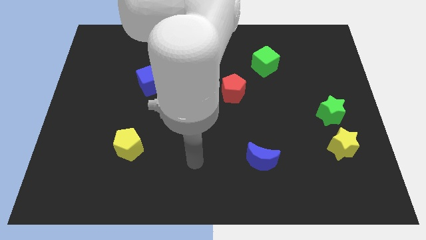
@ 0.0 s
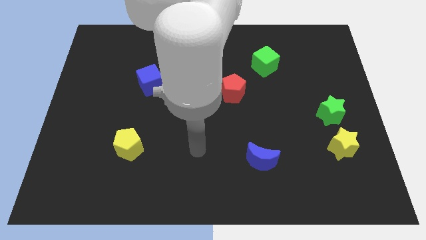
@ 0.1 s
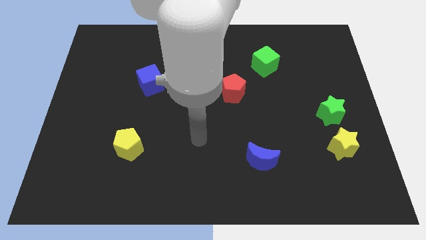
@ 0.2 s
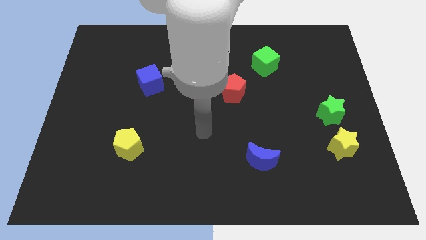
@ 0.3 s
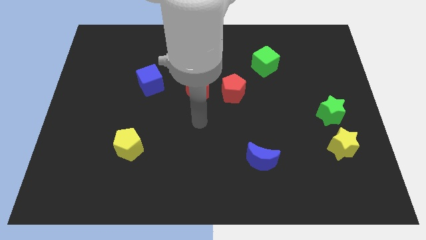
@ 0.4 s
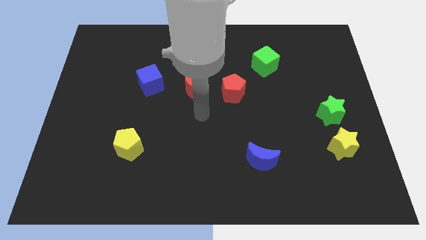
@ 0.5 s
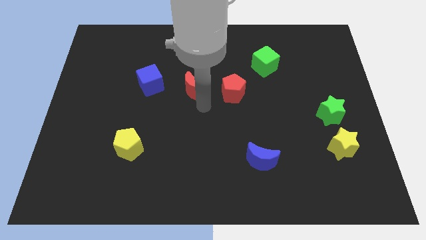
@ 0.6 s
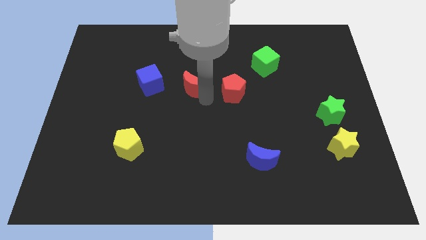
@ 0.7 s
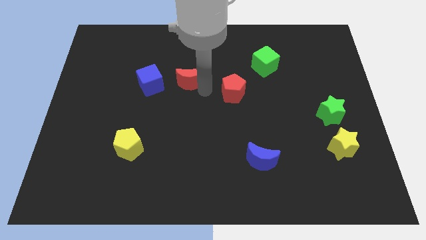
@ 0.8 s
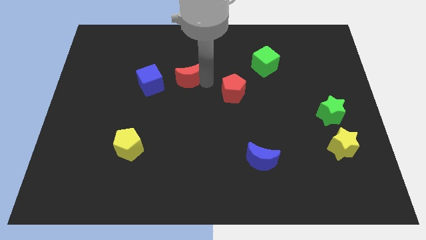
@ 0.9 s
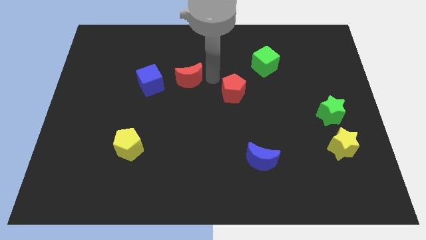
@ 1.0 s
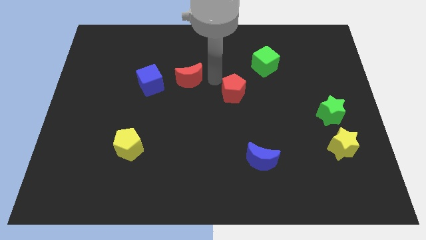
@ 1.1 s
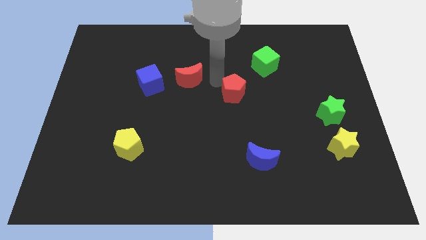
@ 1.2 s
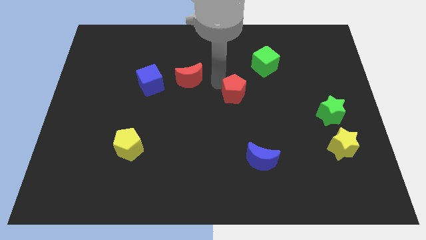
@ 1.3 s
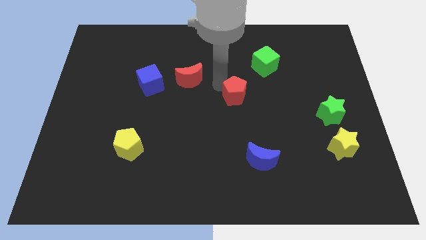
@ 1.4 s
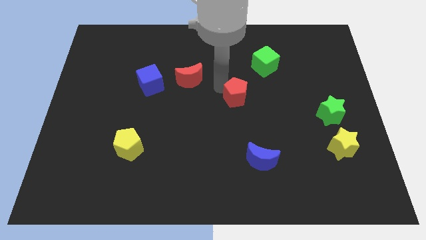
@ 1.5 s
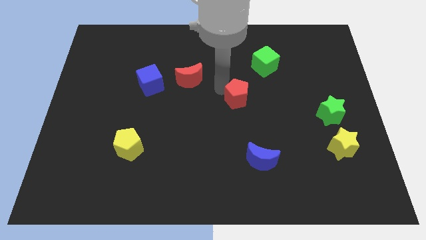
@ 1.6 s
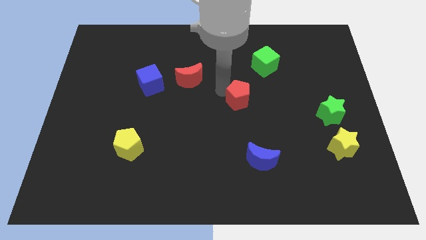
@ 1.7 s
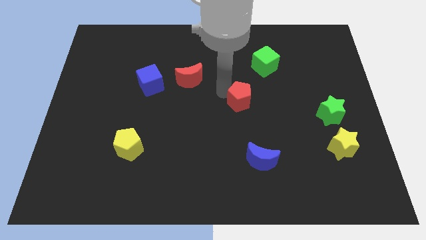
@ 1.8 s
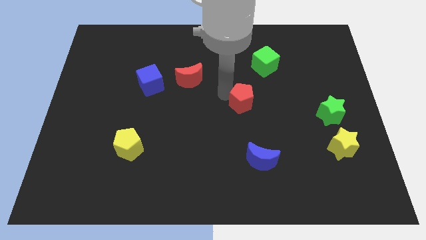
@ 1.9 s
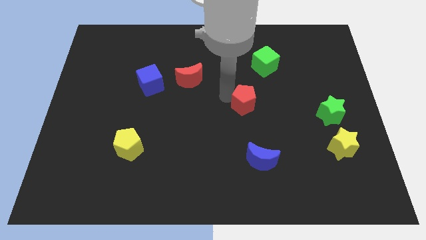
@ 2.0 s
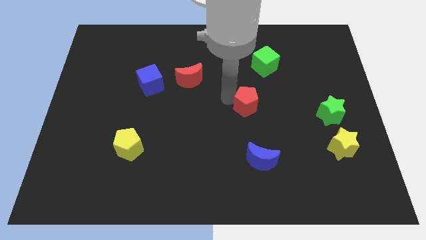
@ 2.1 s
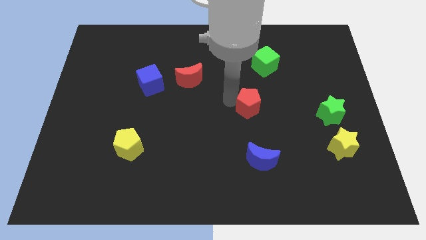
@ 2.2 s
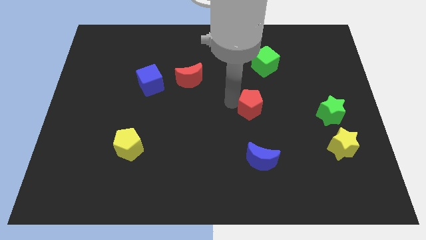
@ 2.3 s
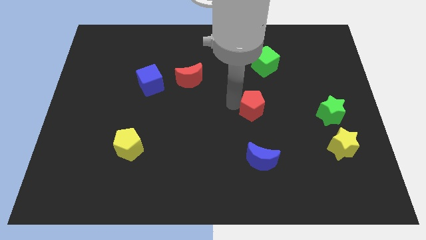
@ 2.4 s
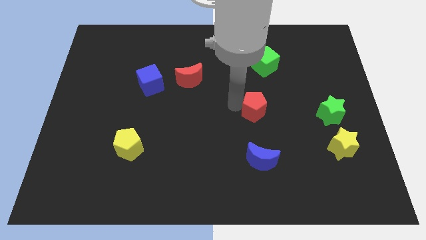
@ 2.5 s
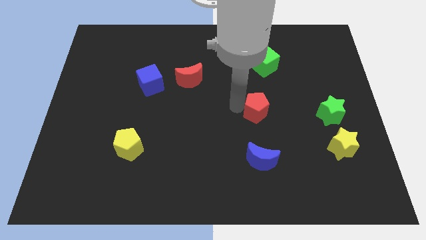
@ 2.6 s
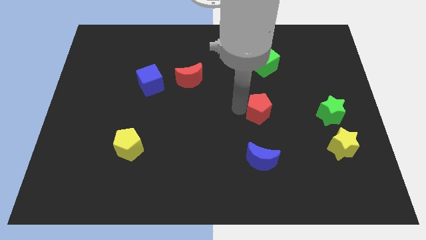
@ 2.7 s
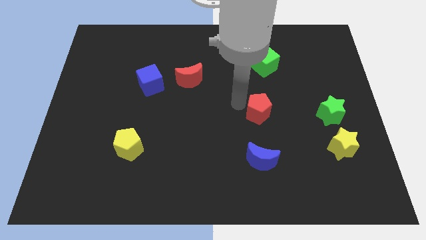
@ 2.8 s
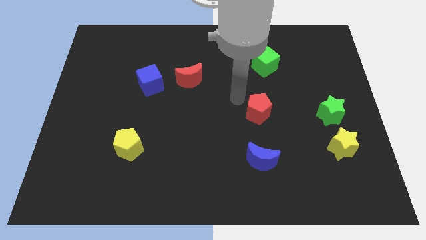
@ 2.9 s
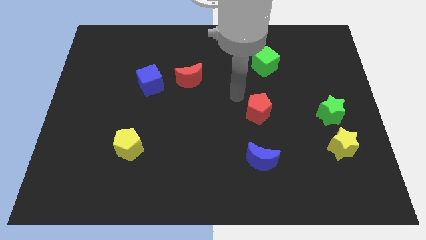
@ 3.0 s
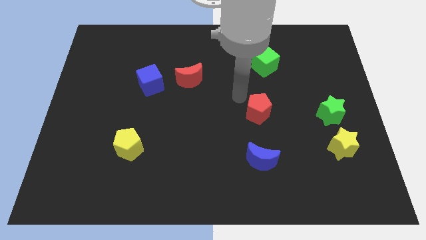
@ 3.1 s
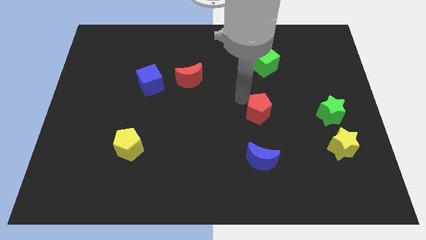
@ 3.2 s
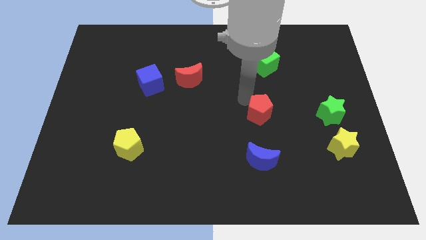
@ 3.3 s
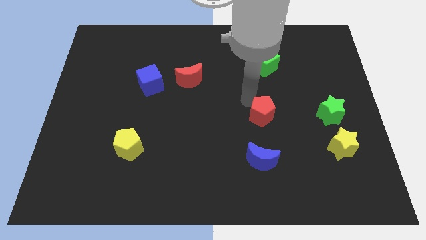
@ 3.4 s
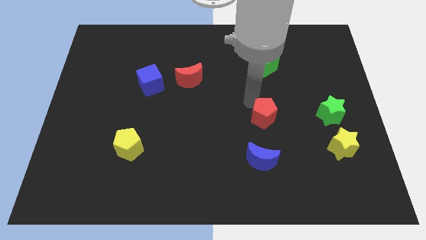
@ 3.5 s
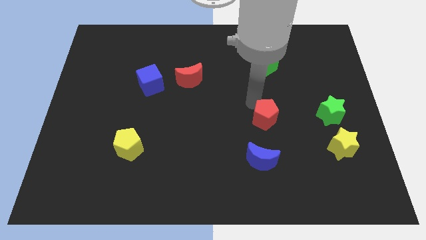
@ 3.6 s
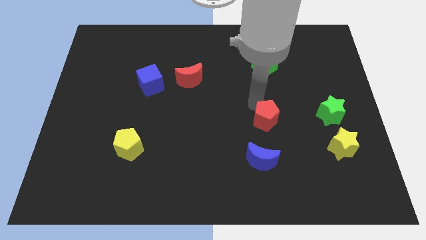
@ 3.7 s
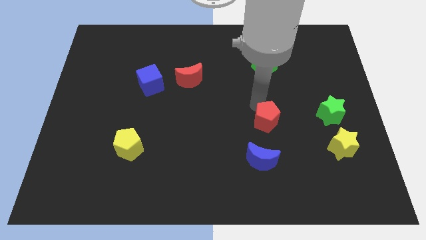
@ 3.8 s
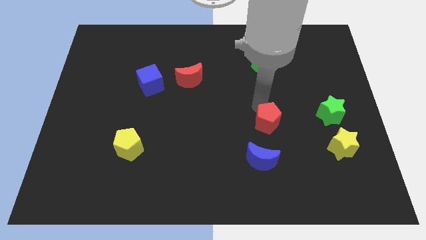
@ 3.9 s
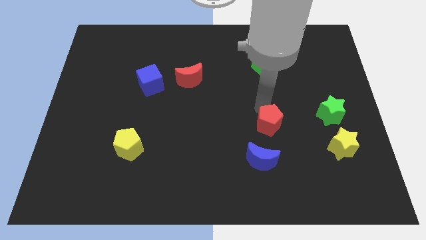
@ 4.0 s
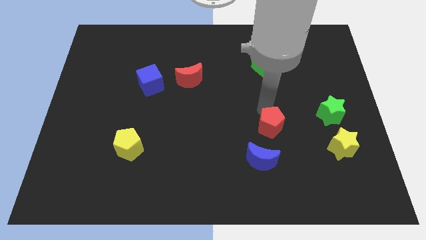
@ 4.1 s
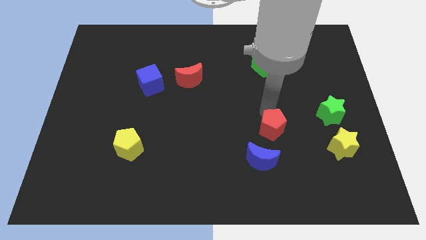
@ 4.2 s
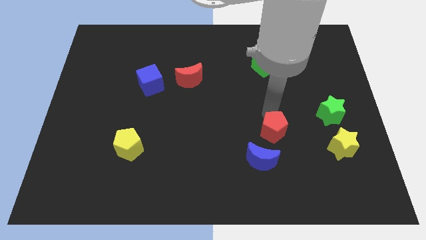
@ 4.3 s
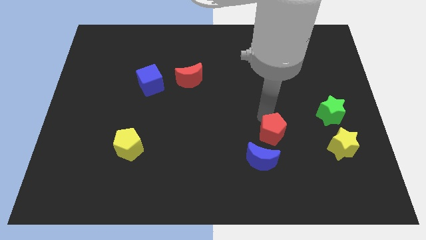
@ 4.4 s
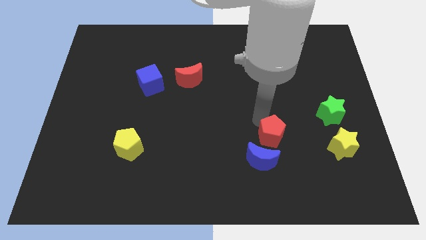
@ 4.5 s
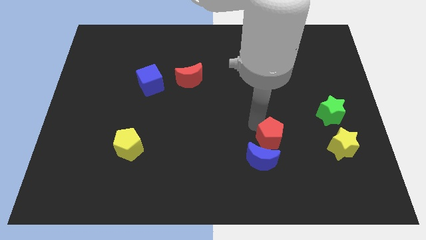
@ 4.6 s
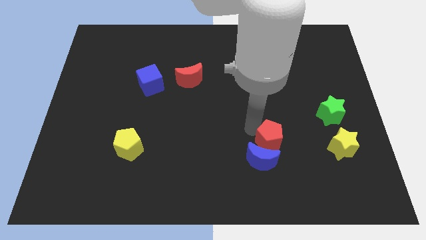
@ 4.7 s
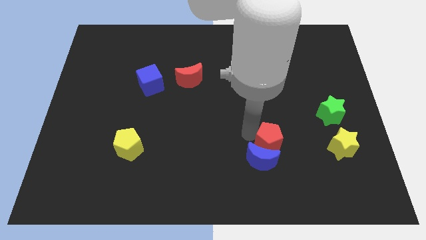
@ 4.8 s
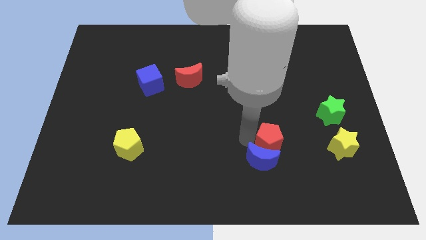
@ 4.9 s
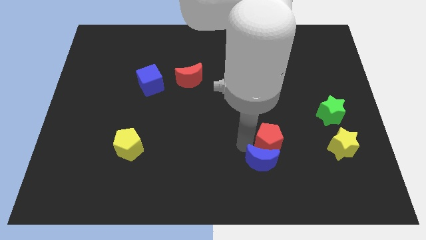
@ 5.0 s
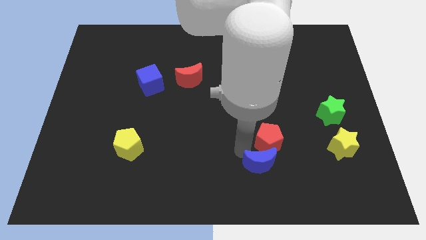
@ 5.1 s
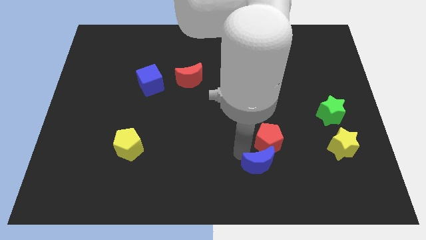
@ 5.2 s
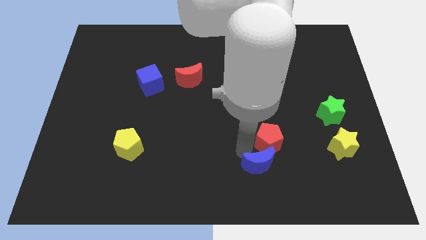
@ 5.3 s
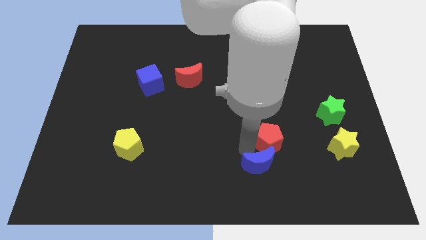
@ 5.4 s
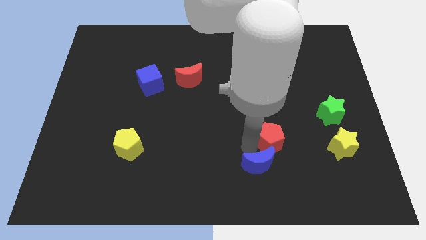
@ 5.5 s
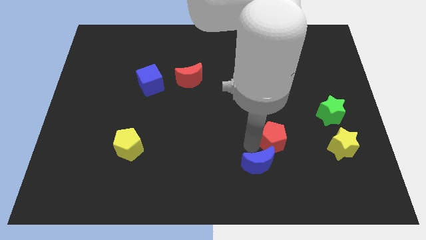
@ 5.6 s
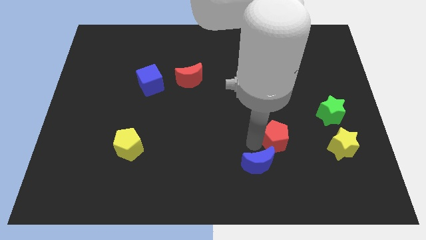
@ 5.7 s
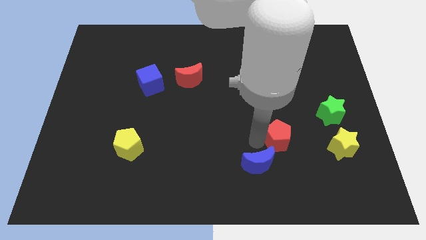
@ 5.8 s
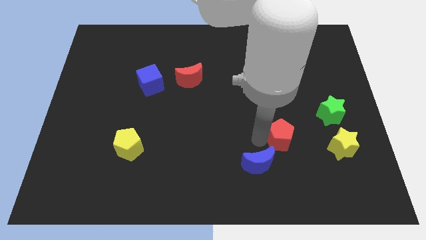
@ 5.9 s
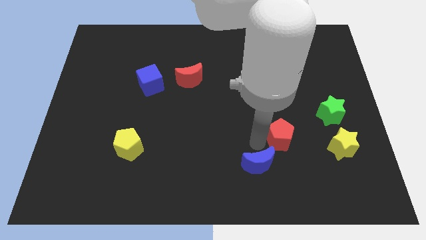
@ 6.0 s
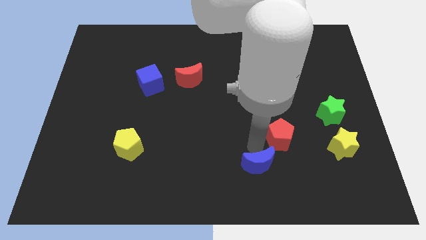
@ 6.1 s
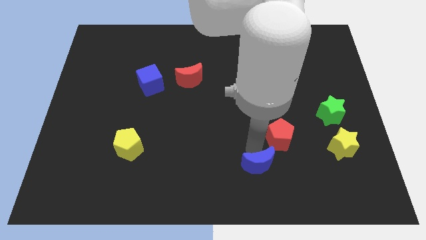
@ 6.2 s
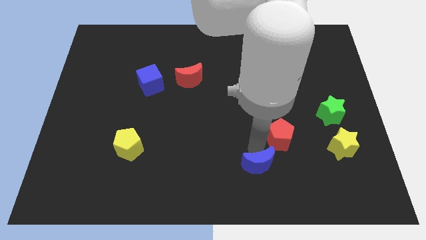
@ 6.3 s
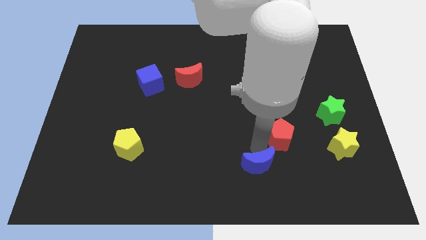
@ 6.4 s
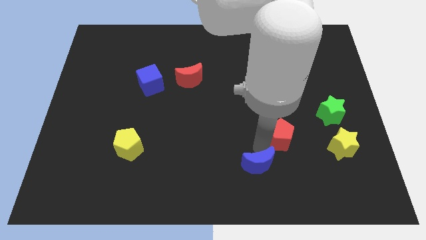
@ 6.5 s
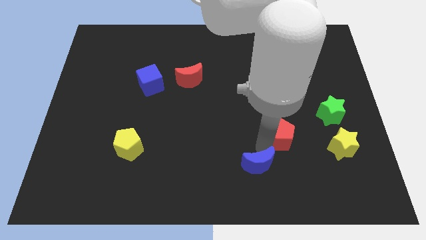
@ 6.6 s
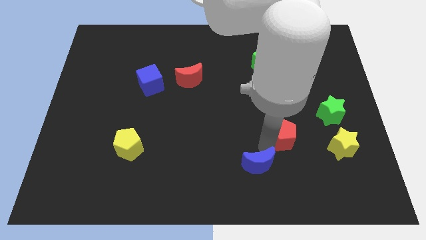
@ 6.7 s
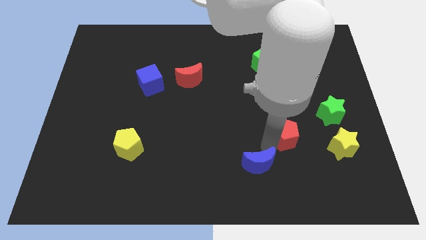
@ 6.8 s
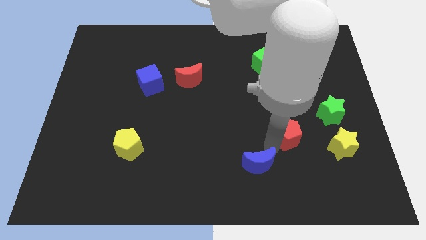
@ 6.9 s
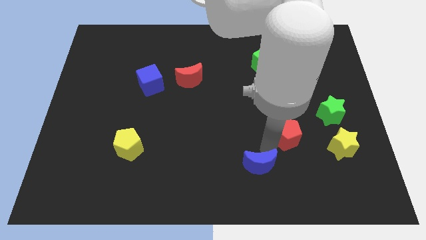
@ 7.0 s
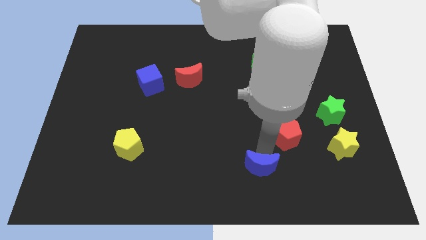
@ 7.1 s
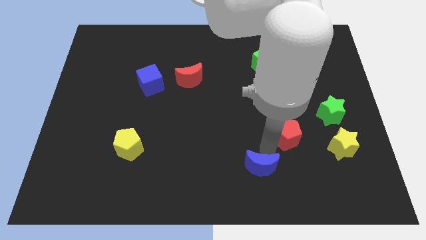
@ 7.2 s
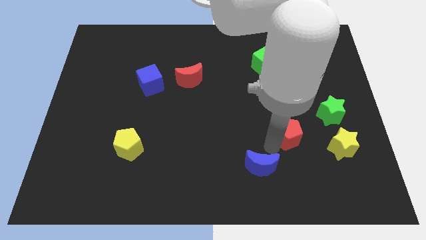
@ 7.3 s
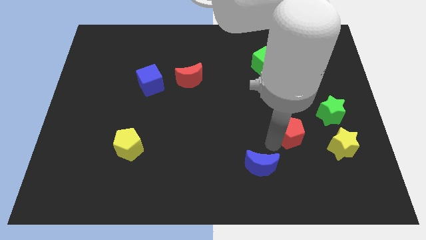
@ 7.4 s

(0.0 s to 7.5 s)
slide the red pentagon to the bottom left side of the green star

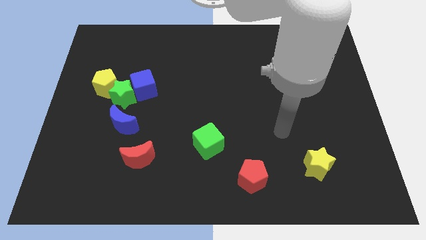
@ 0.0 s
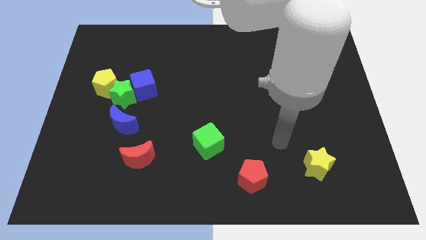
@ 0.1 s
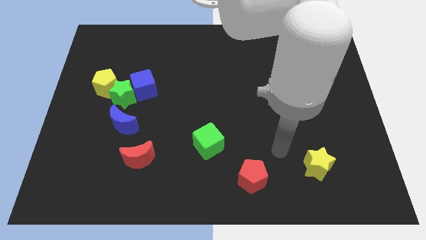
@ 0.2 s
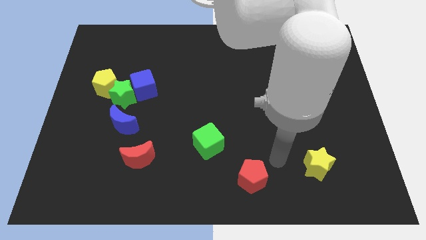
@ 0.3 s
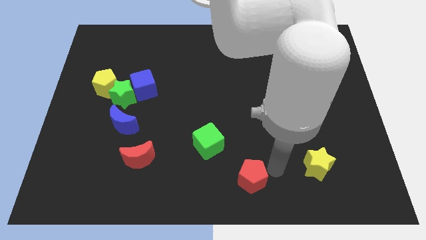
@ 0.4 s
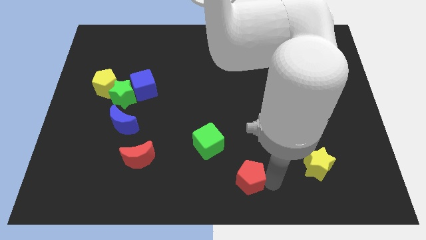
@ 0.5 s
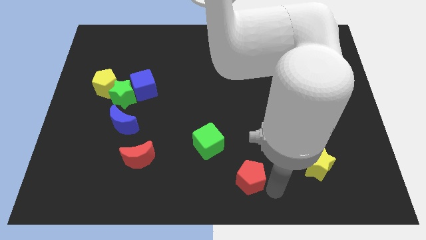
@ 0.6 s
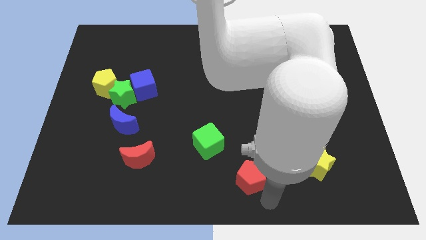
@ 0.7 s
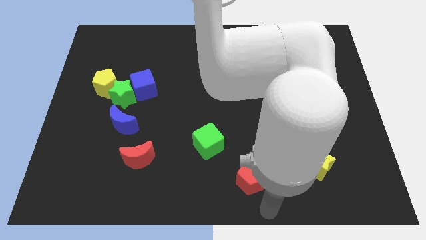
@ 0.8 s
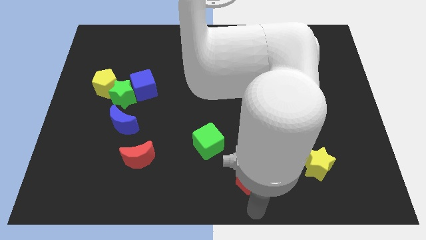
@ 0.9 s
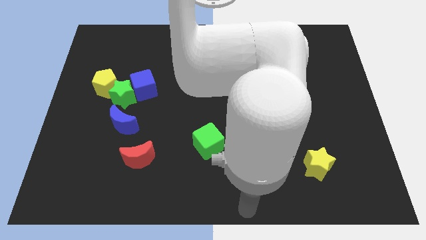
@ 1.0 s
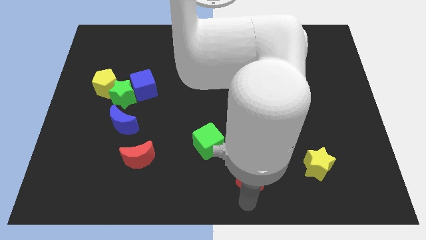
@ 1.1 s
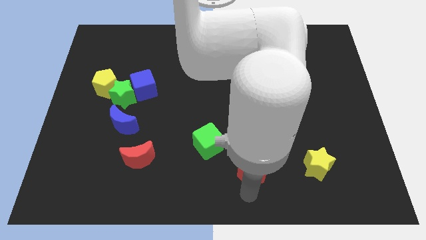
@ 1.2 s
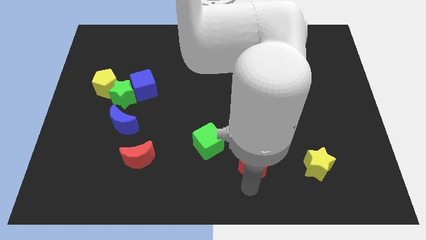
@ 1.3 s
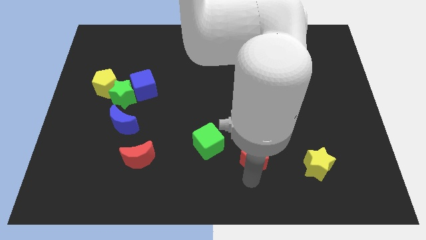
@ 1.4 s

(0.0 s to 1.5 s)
slide the red pentagon to the right of the green cube
